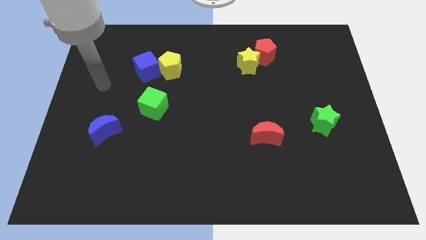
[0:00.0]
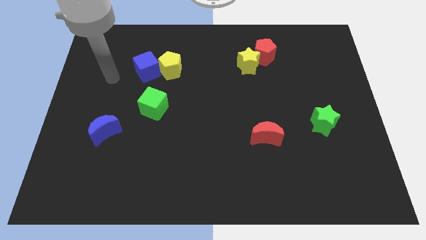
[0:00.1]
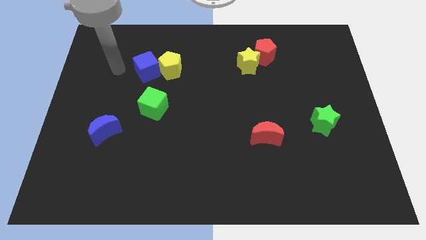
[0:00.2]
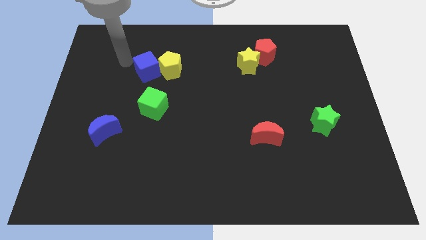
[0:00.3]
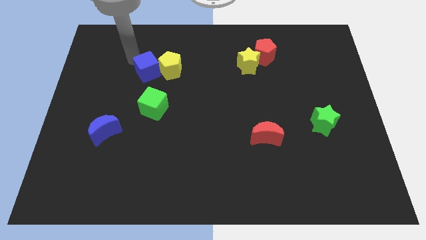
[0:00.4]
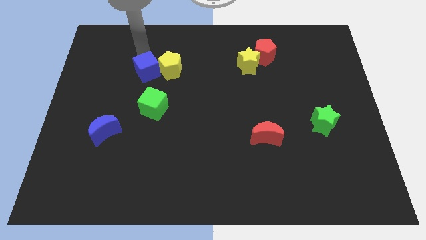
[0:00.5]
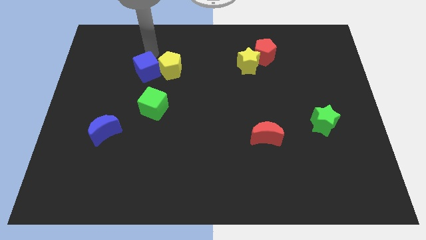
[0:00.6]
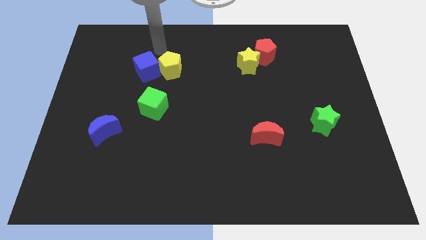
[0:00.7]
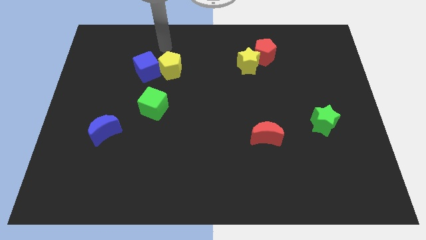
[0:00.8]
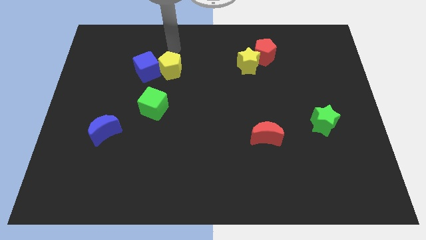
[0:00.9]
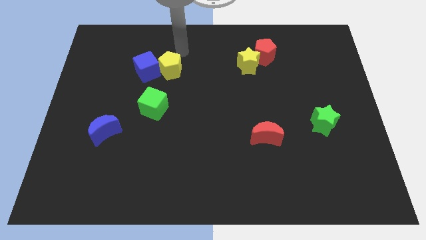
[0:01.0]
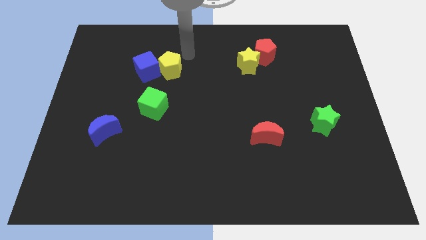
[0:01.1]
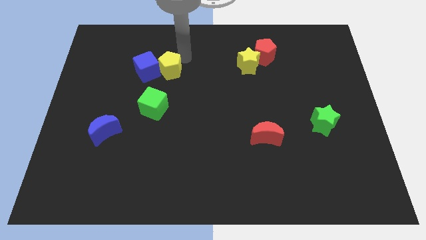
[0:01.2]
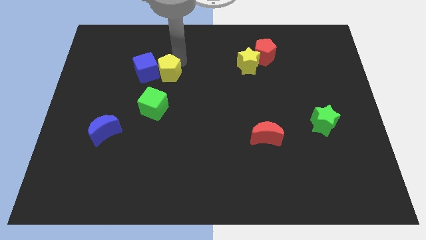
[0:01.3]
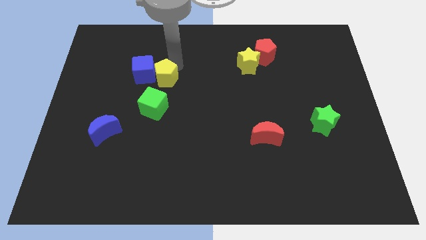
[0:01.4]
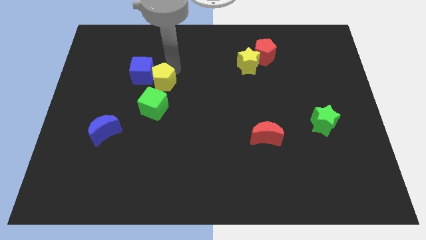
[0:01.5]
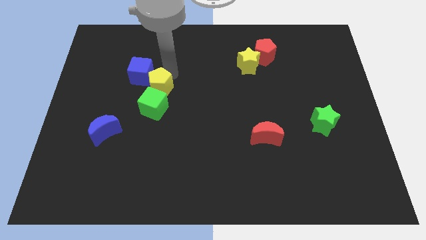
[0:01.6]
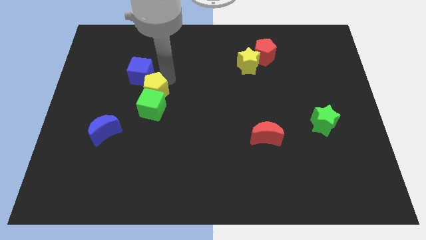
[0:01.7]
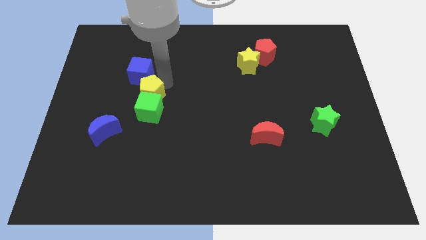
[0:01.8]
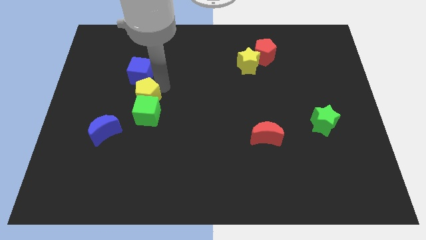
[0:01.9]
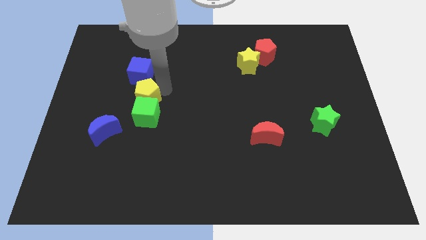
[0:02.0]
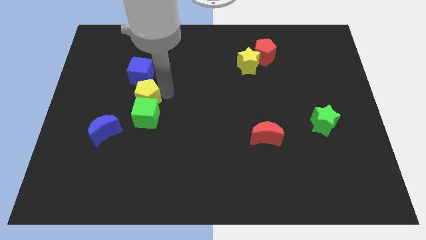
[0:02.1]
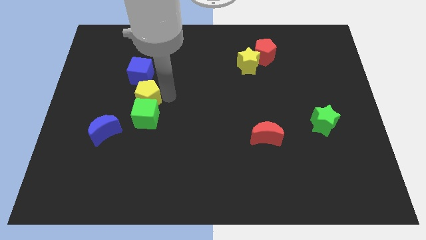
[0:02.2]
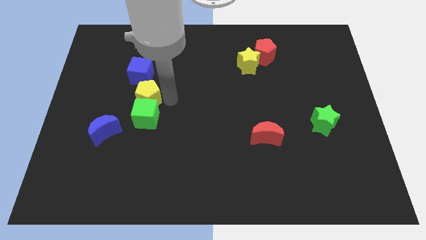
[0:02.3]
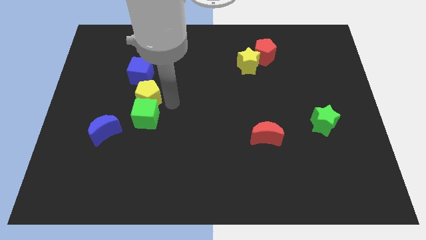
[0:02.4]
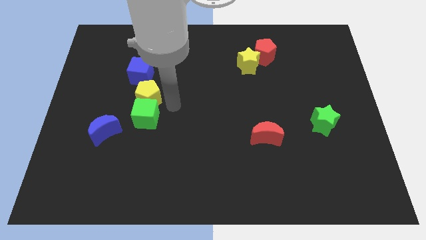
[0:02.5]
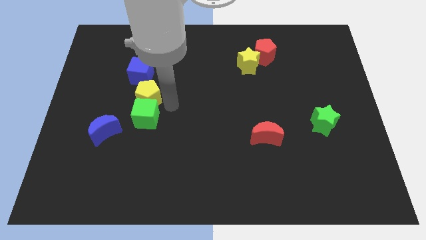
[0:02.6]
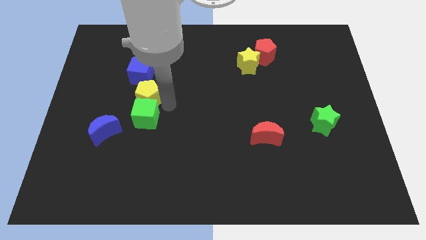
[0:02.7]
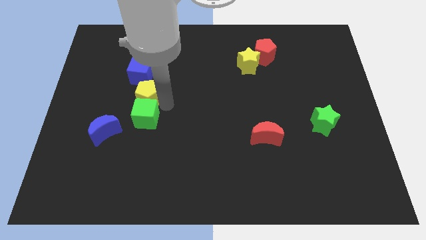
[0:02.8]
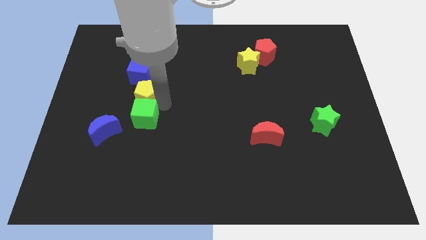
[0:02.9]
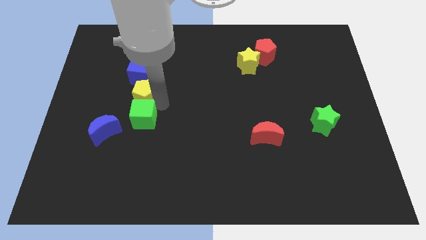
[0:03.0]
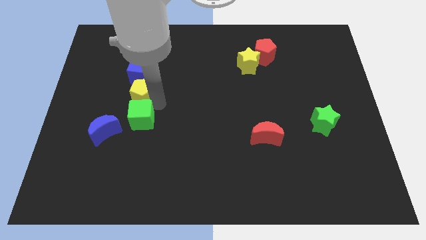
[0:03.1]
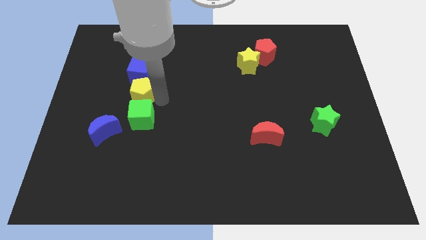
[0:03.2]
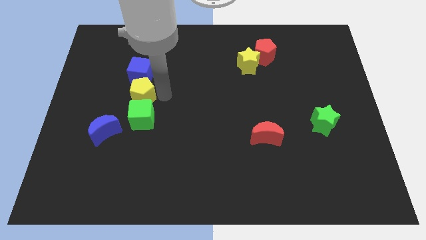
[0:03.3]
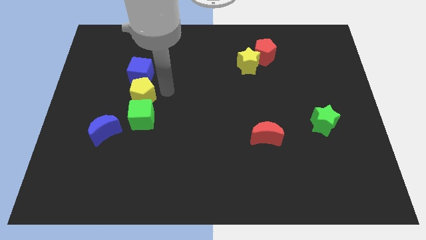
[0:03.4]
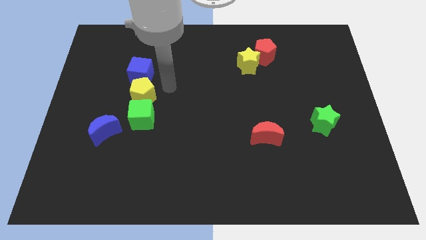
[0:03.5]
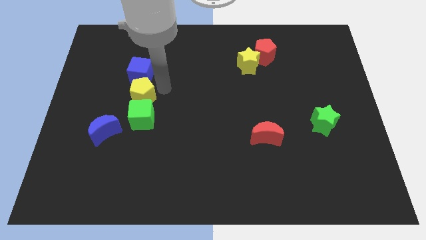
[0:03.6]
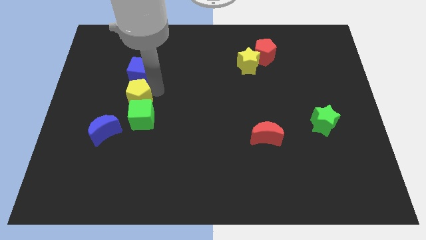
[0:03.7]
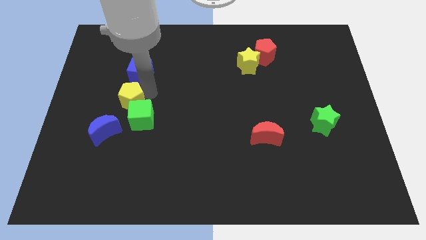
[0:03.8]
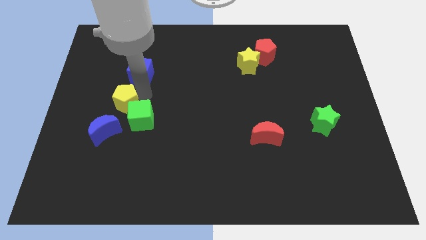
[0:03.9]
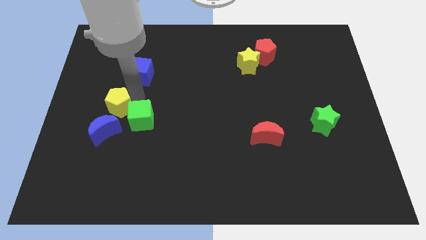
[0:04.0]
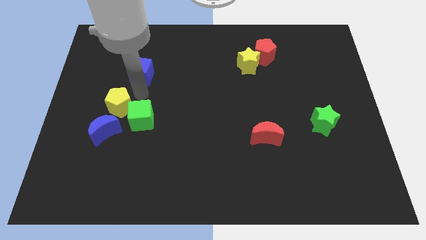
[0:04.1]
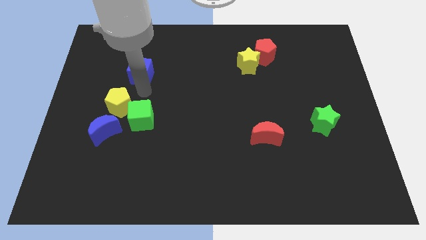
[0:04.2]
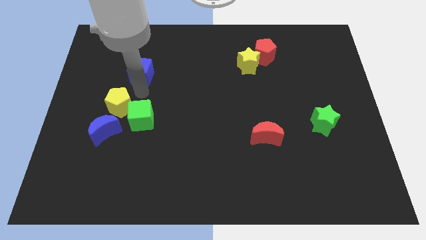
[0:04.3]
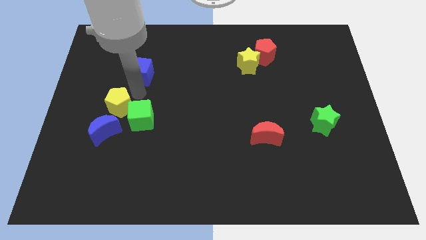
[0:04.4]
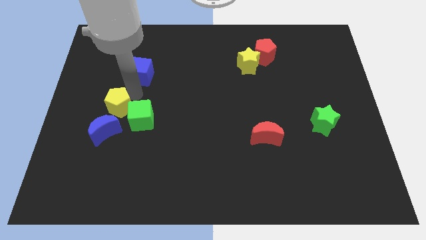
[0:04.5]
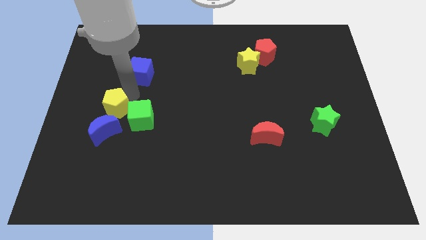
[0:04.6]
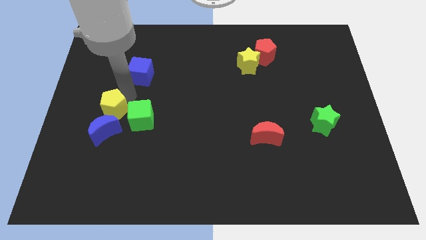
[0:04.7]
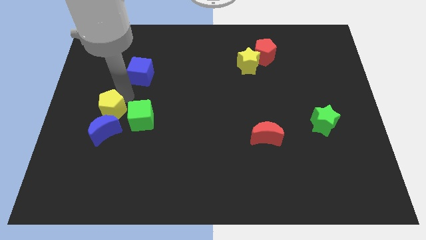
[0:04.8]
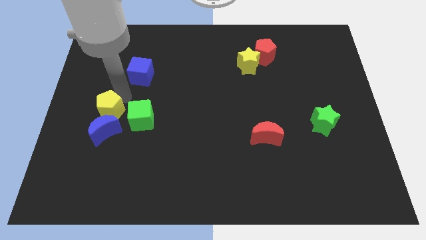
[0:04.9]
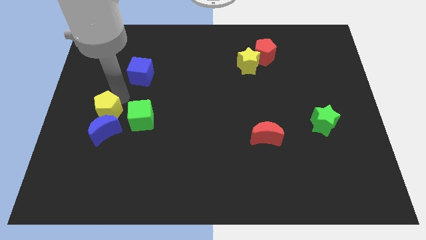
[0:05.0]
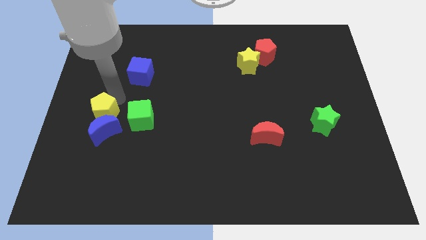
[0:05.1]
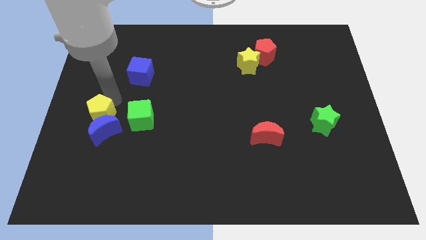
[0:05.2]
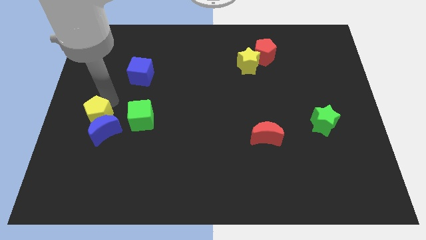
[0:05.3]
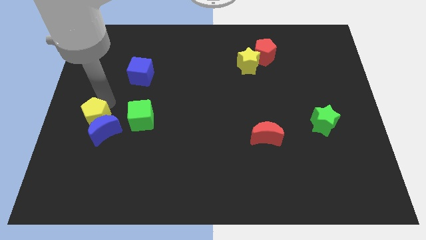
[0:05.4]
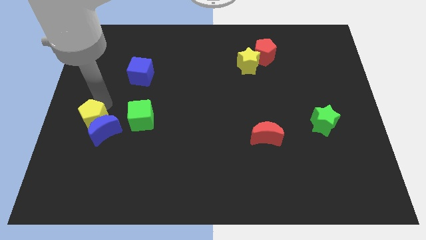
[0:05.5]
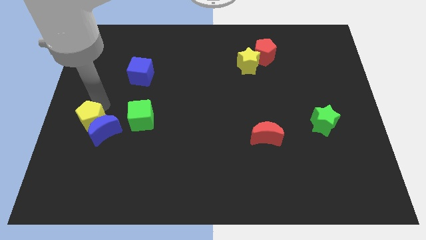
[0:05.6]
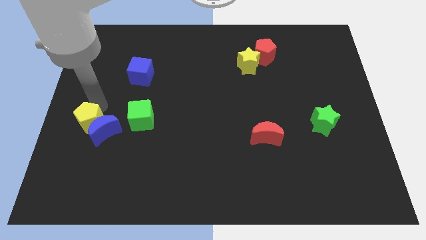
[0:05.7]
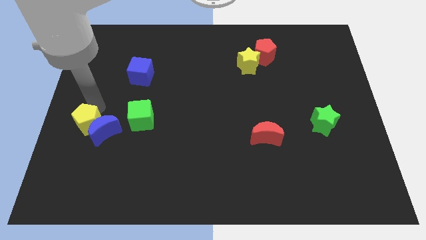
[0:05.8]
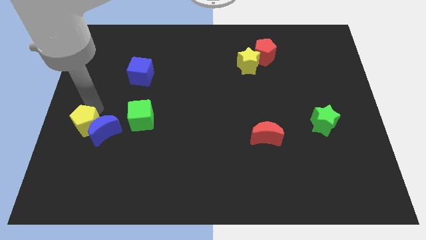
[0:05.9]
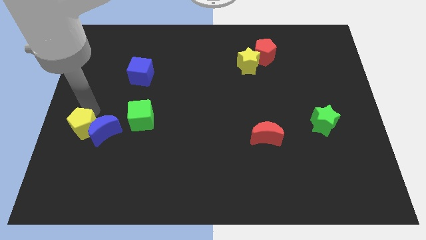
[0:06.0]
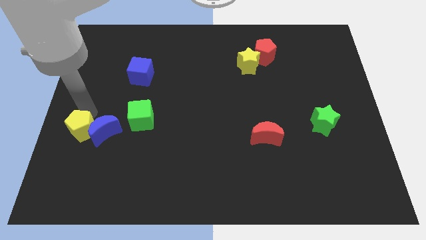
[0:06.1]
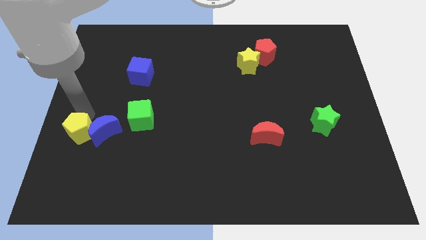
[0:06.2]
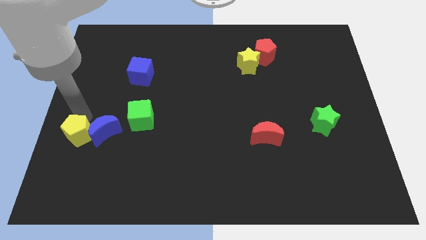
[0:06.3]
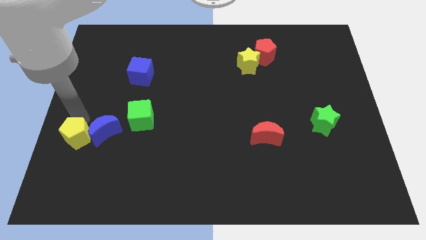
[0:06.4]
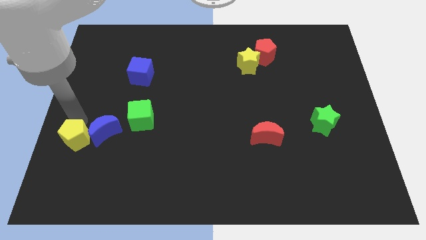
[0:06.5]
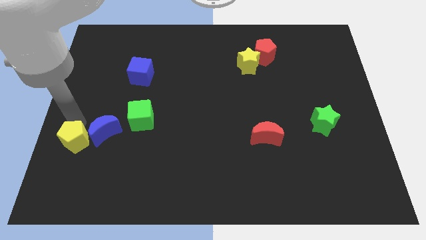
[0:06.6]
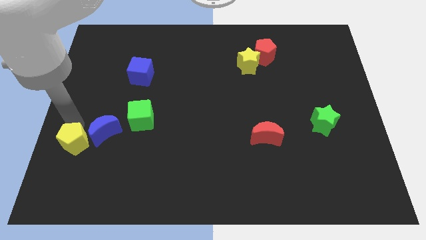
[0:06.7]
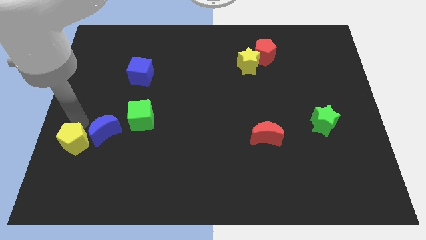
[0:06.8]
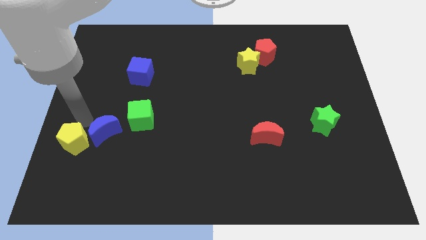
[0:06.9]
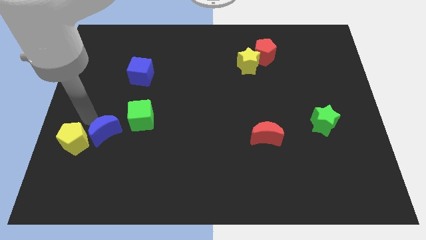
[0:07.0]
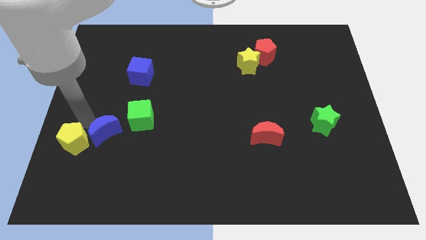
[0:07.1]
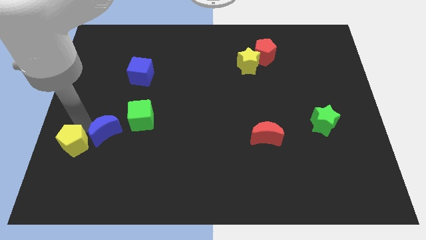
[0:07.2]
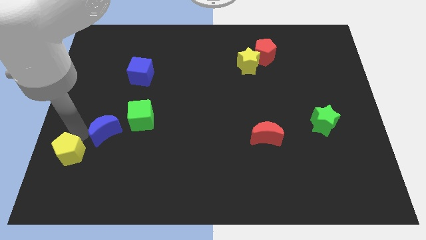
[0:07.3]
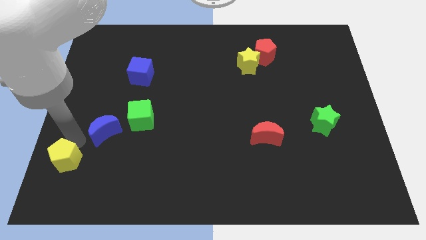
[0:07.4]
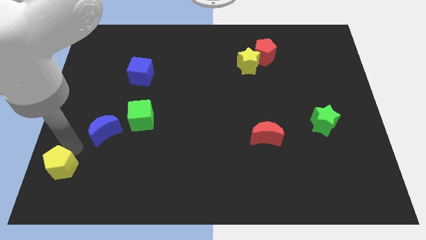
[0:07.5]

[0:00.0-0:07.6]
move the yellow pentagon to the lower left corner
